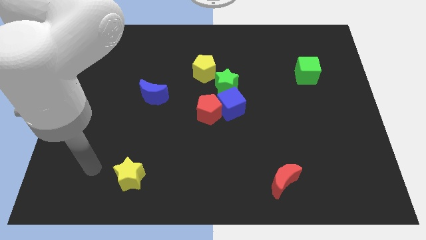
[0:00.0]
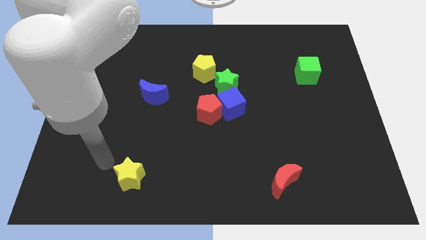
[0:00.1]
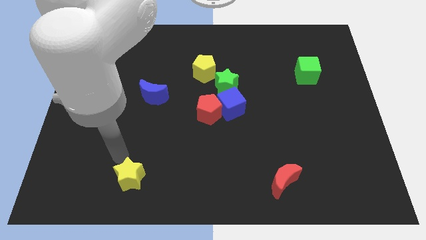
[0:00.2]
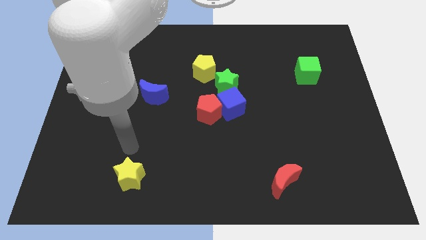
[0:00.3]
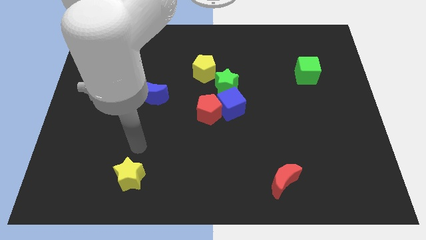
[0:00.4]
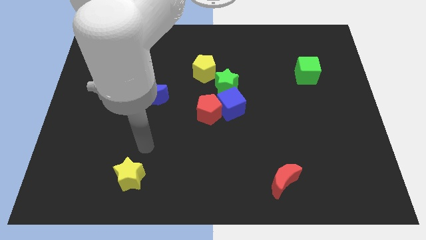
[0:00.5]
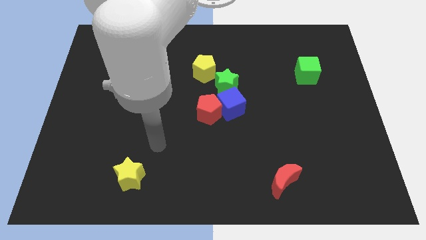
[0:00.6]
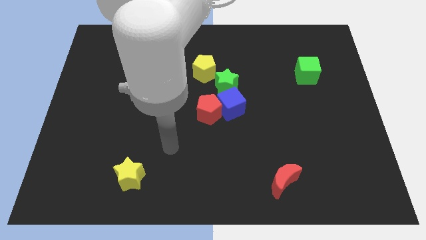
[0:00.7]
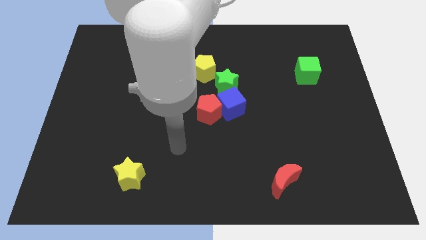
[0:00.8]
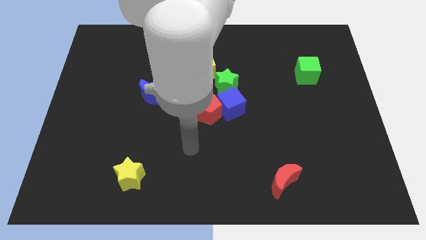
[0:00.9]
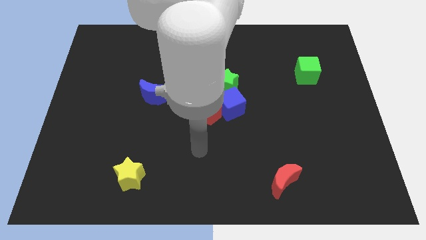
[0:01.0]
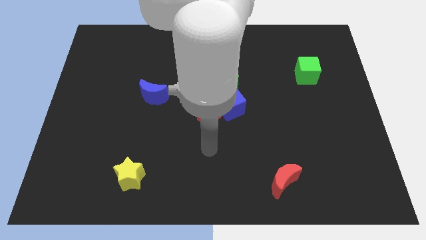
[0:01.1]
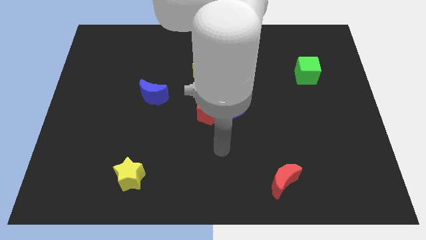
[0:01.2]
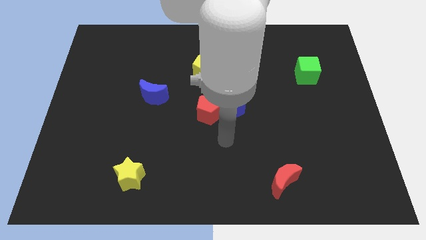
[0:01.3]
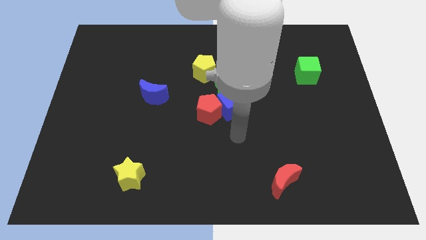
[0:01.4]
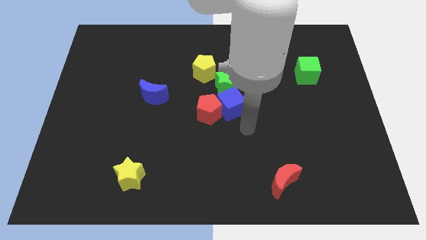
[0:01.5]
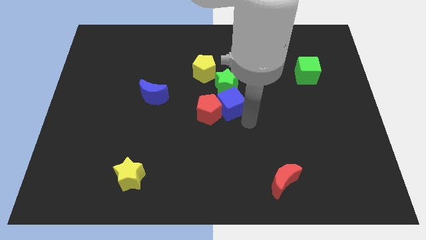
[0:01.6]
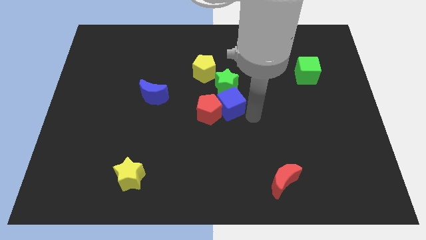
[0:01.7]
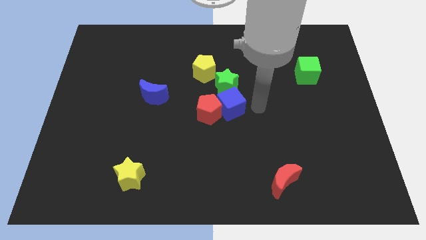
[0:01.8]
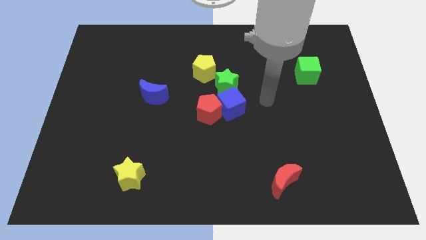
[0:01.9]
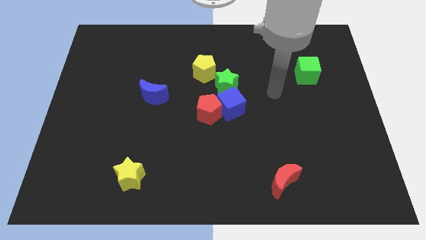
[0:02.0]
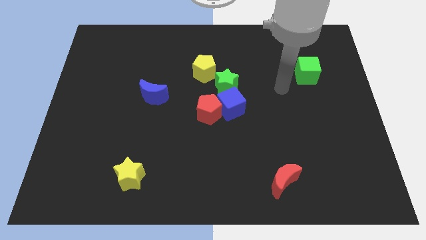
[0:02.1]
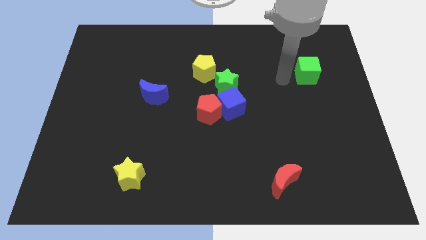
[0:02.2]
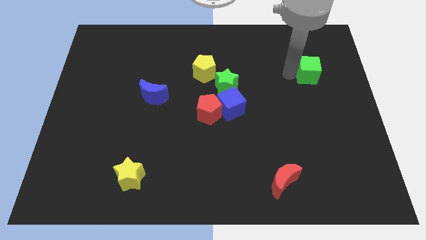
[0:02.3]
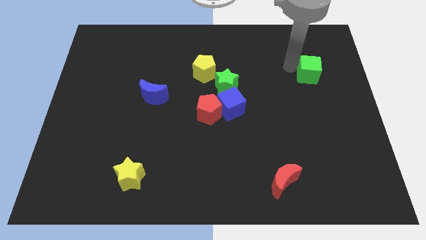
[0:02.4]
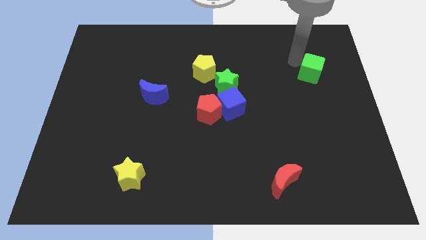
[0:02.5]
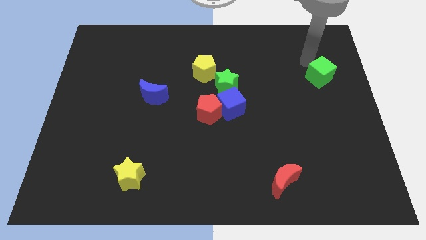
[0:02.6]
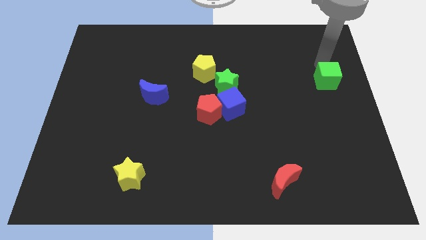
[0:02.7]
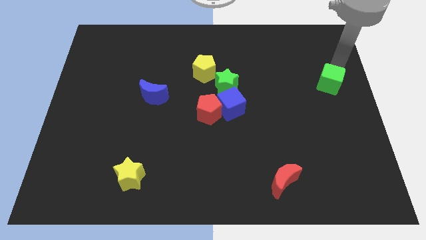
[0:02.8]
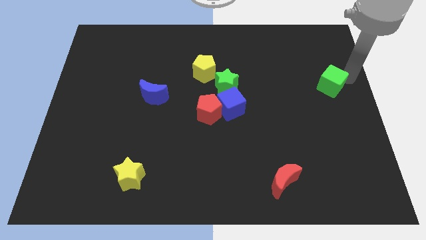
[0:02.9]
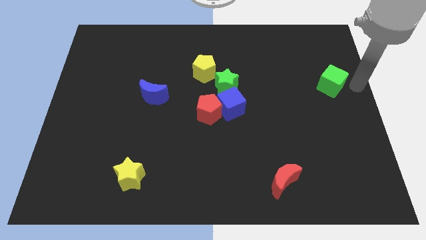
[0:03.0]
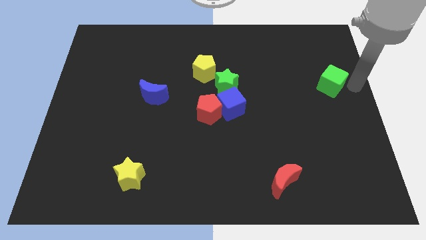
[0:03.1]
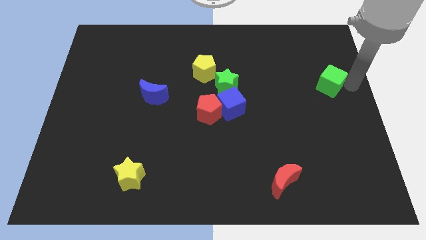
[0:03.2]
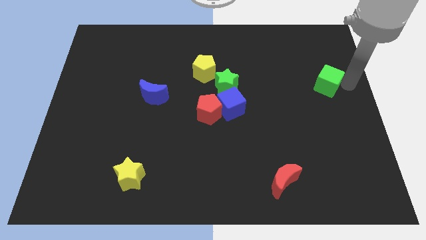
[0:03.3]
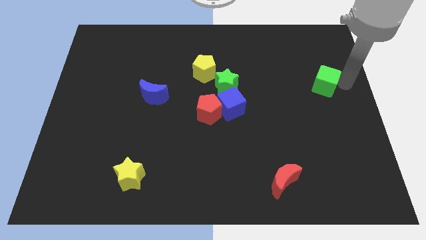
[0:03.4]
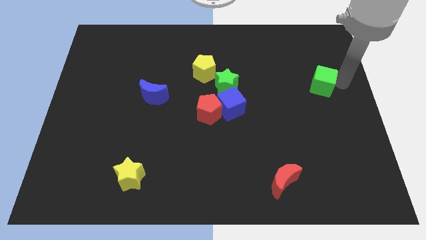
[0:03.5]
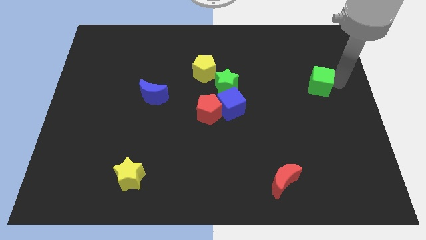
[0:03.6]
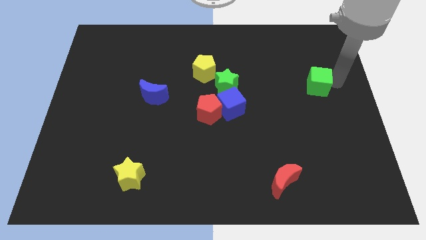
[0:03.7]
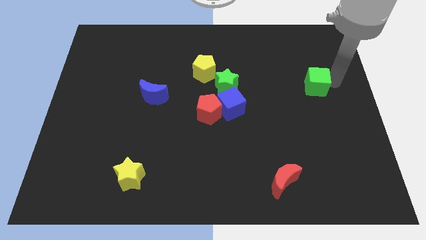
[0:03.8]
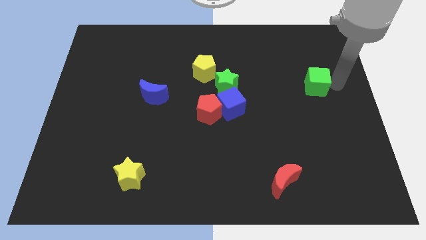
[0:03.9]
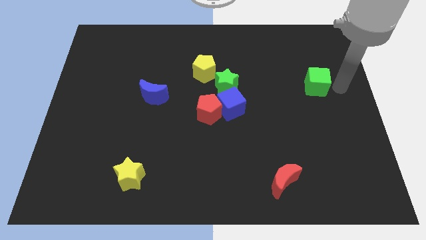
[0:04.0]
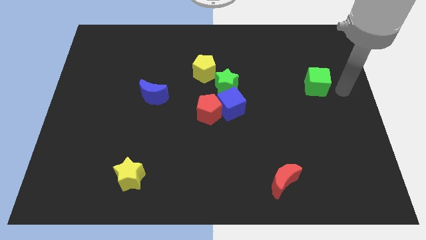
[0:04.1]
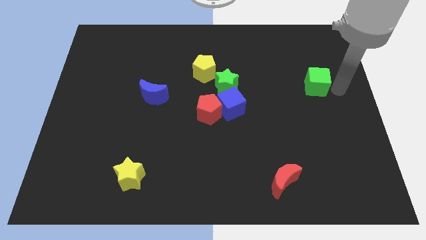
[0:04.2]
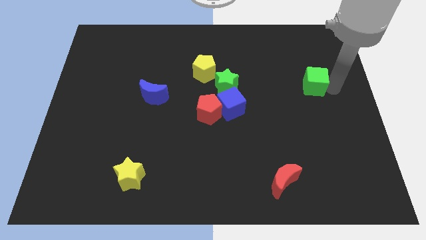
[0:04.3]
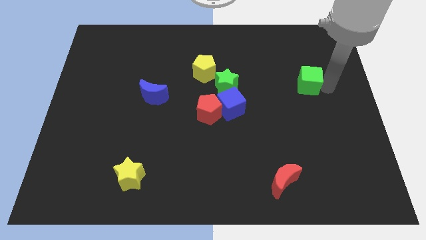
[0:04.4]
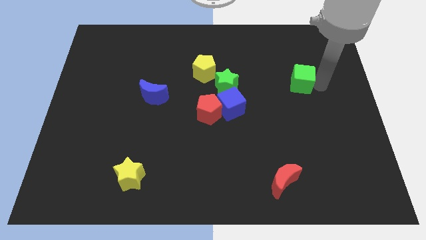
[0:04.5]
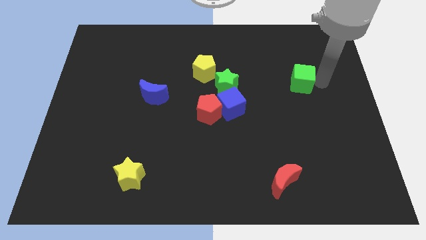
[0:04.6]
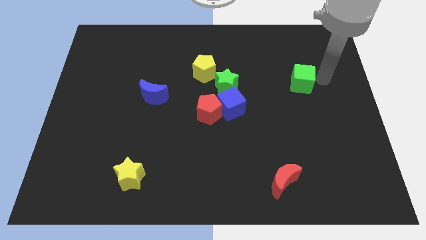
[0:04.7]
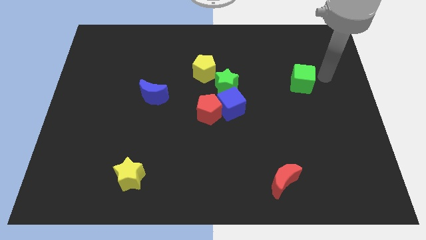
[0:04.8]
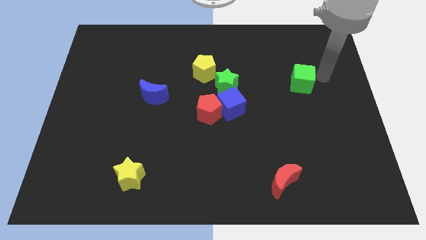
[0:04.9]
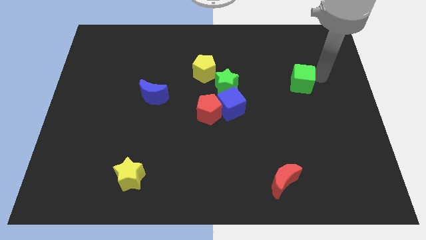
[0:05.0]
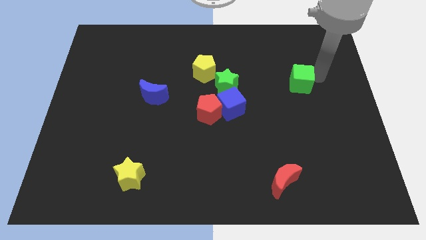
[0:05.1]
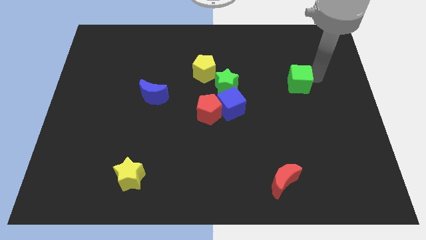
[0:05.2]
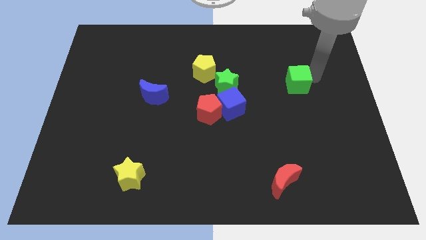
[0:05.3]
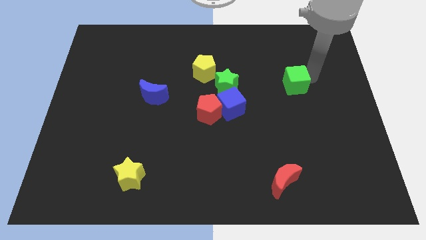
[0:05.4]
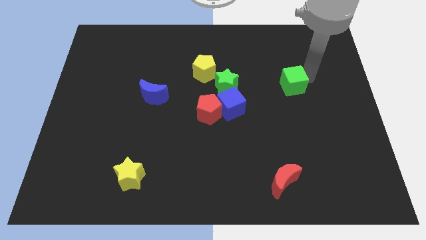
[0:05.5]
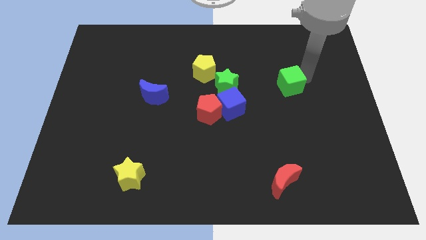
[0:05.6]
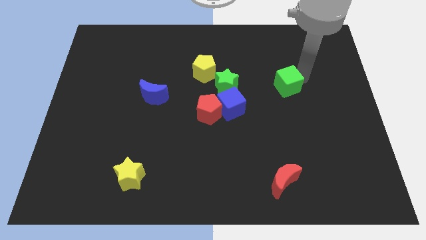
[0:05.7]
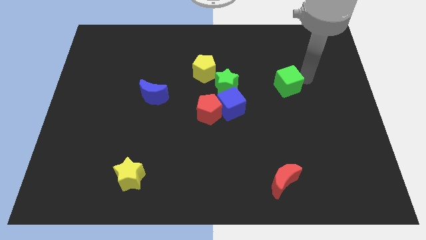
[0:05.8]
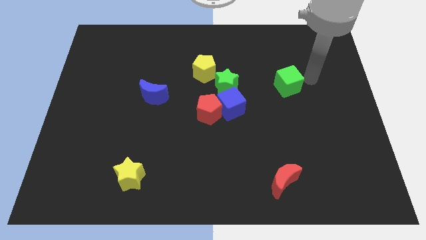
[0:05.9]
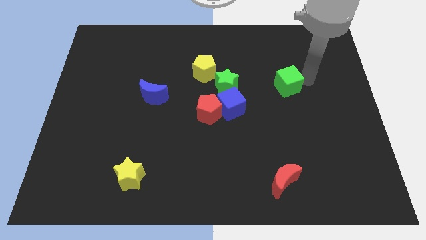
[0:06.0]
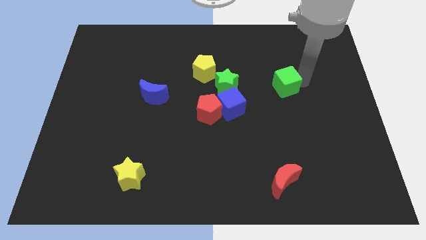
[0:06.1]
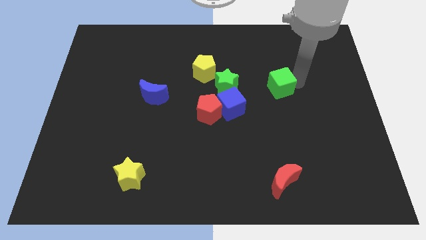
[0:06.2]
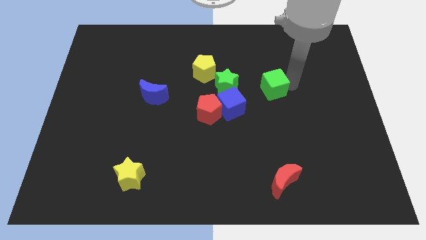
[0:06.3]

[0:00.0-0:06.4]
put the green cube to the top right of the blue cube

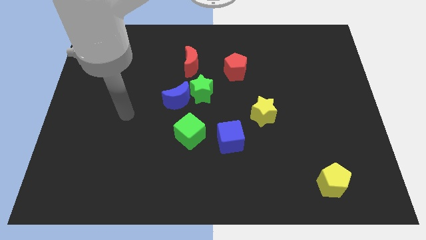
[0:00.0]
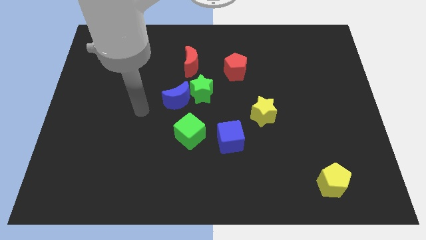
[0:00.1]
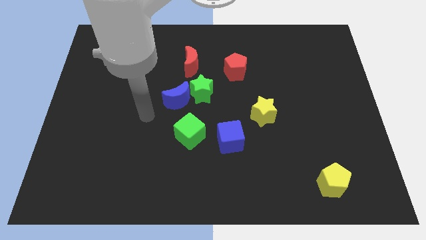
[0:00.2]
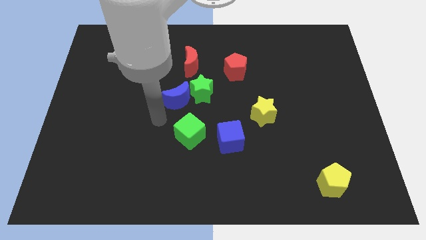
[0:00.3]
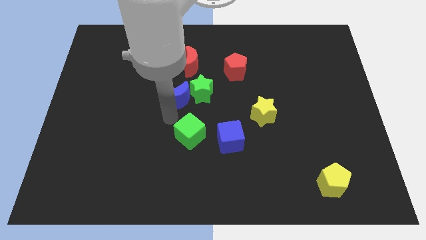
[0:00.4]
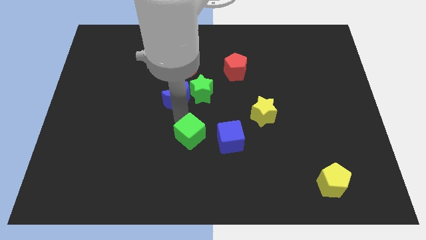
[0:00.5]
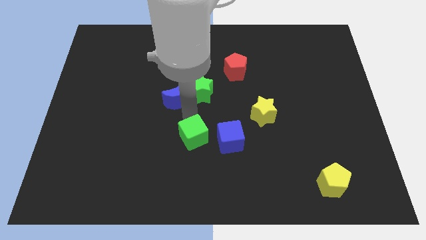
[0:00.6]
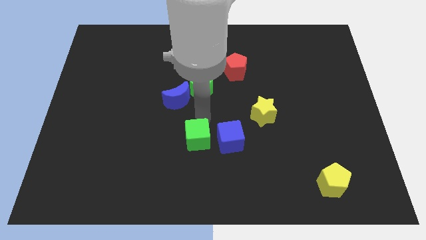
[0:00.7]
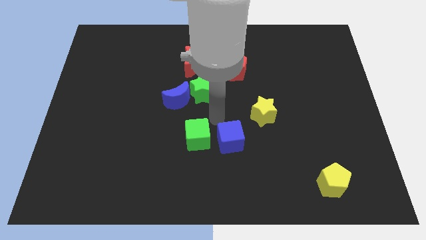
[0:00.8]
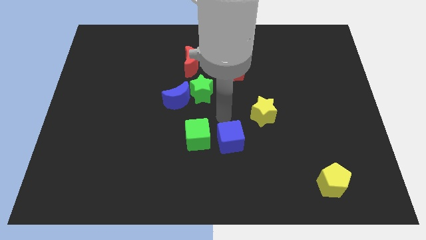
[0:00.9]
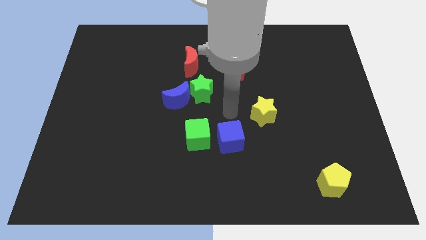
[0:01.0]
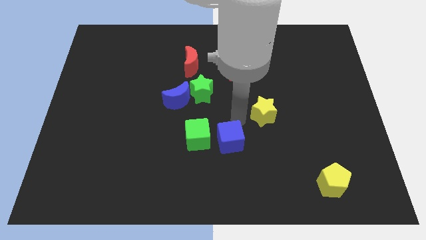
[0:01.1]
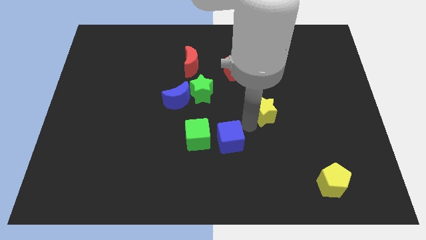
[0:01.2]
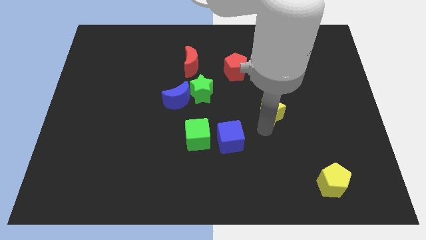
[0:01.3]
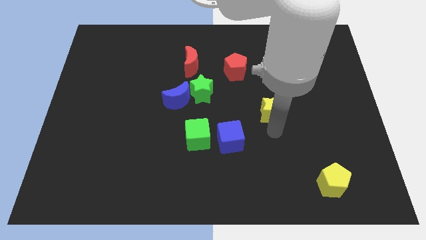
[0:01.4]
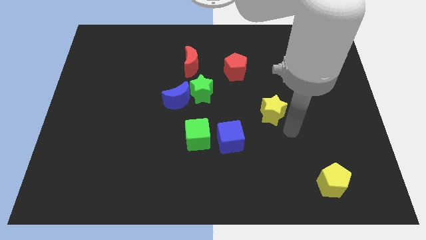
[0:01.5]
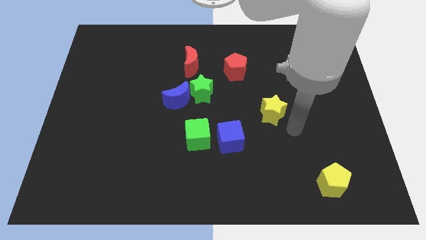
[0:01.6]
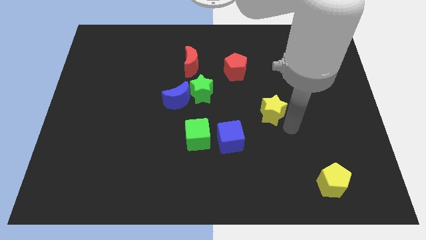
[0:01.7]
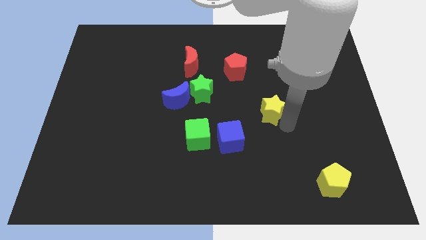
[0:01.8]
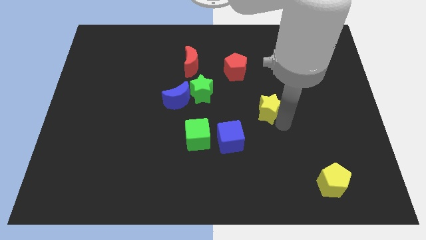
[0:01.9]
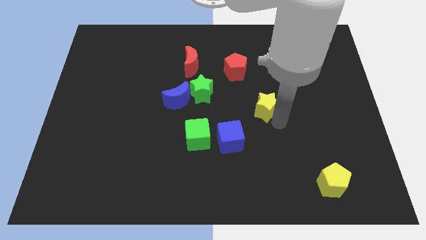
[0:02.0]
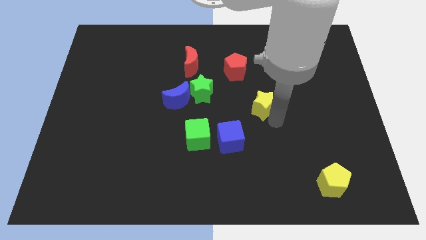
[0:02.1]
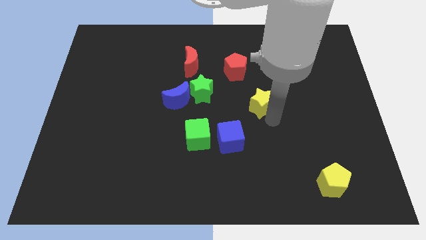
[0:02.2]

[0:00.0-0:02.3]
slide the yellow star right of the green star
